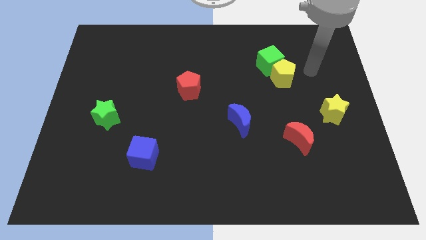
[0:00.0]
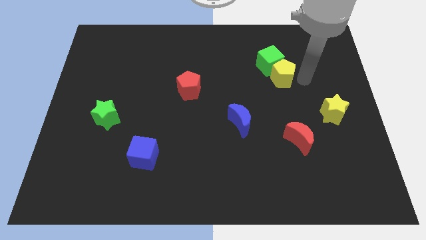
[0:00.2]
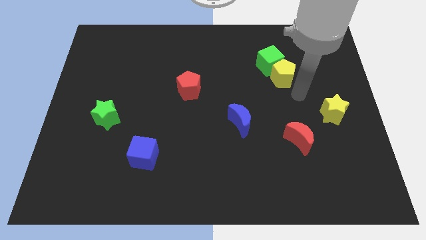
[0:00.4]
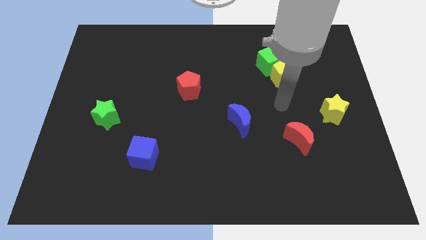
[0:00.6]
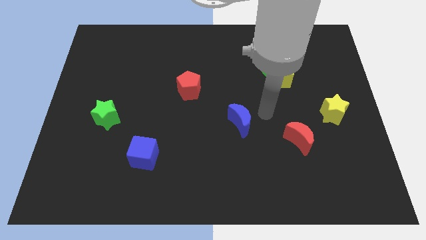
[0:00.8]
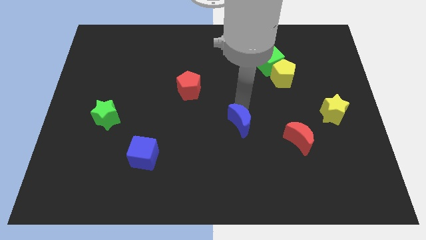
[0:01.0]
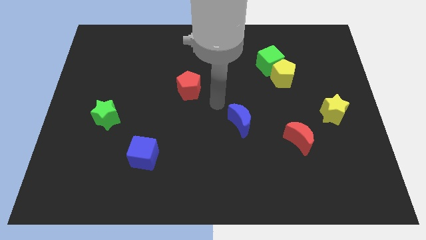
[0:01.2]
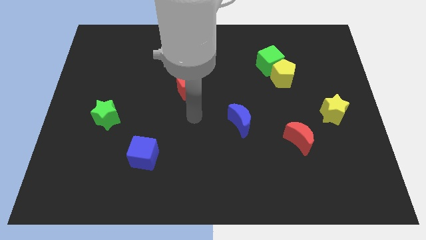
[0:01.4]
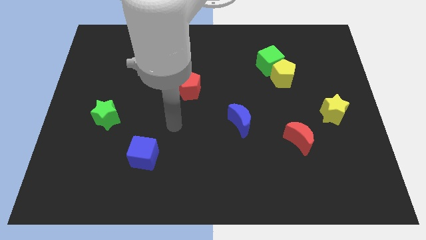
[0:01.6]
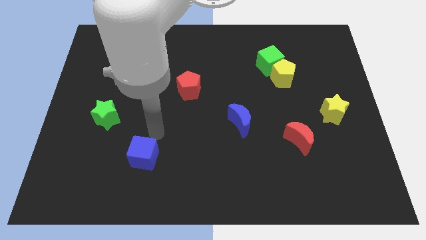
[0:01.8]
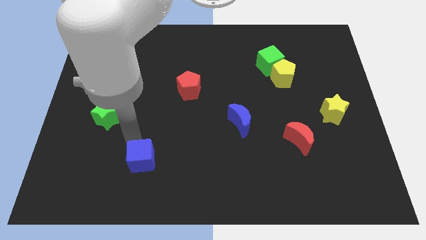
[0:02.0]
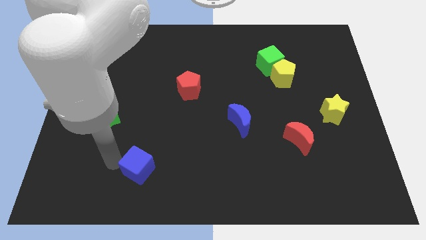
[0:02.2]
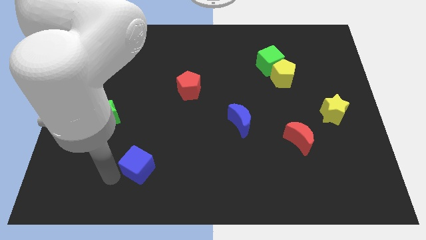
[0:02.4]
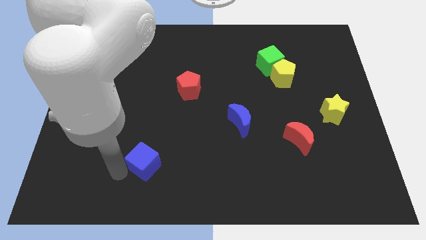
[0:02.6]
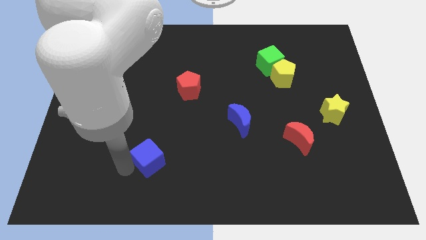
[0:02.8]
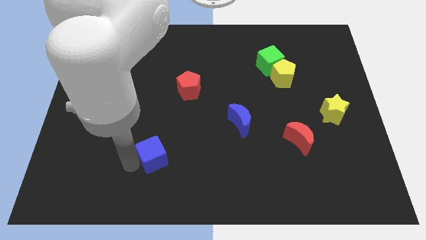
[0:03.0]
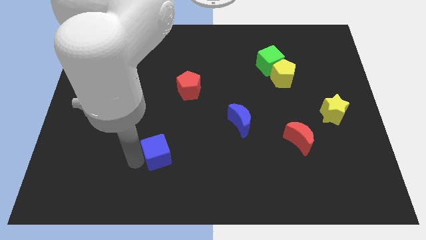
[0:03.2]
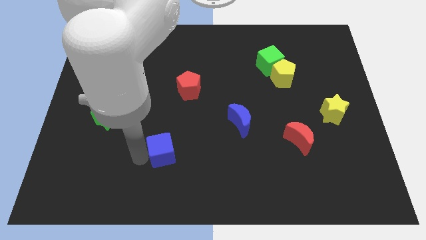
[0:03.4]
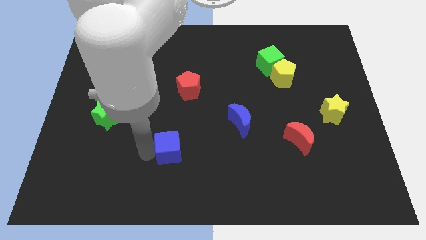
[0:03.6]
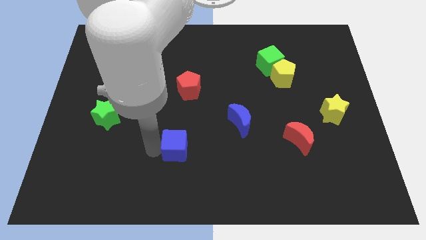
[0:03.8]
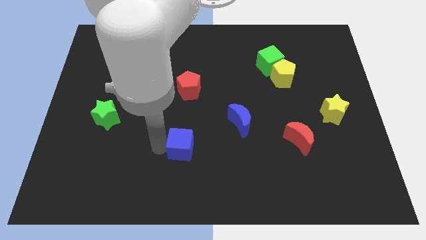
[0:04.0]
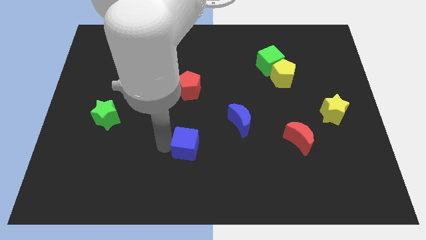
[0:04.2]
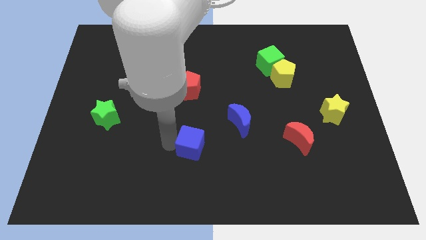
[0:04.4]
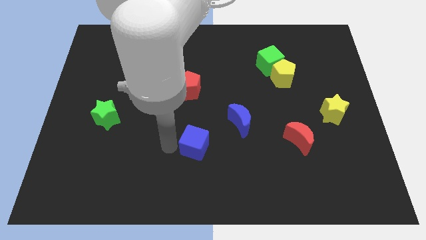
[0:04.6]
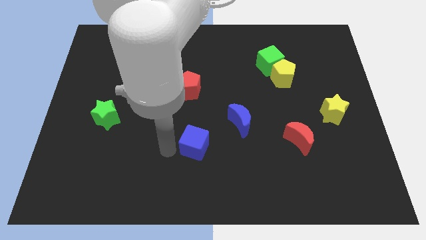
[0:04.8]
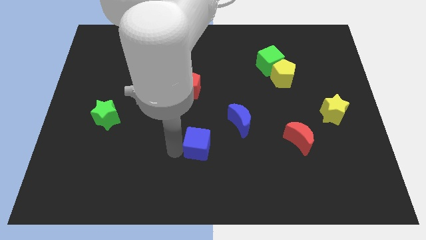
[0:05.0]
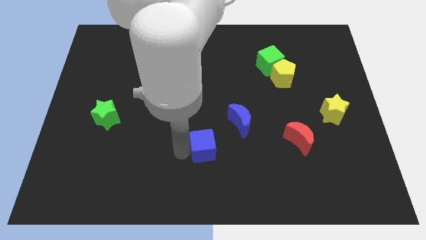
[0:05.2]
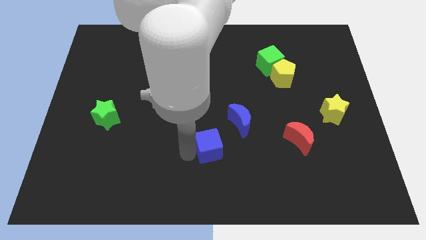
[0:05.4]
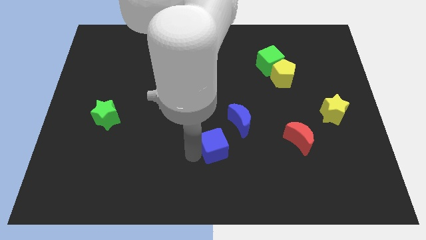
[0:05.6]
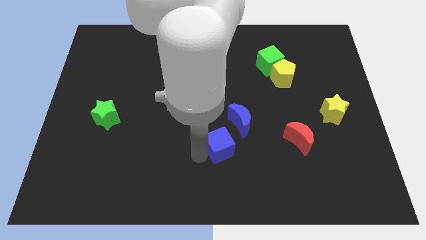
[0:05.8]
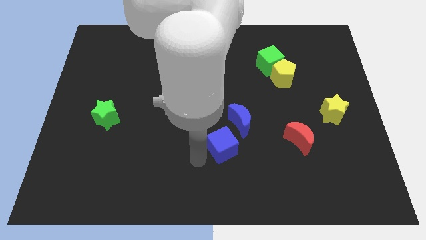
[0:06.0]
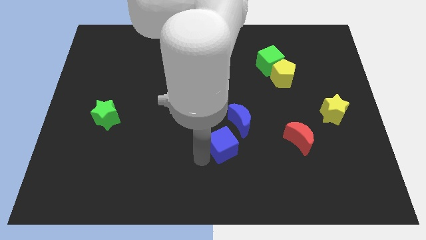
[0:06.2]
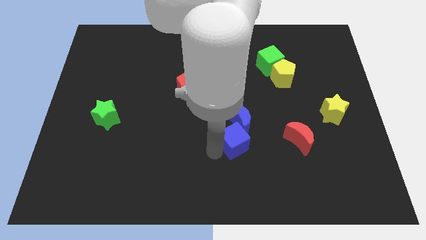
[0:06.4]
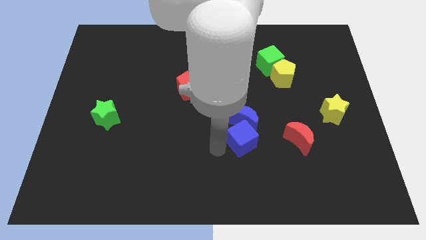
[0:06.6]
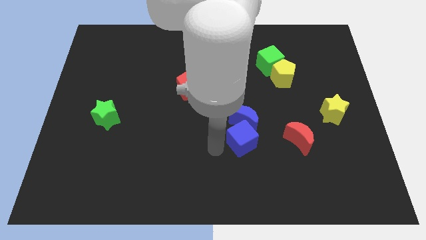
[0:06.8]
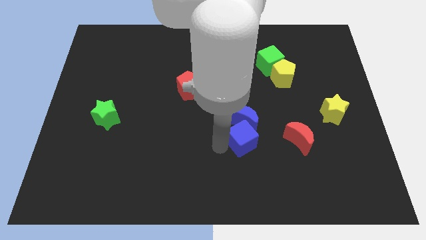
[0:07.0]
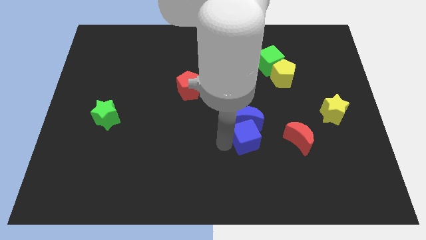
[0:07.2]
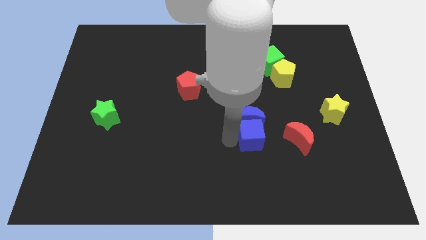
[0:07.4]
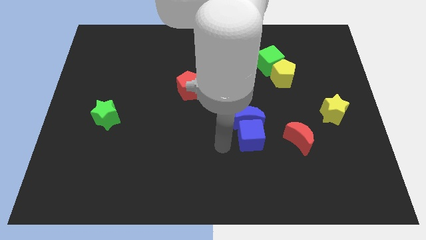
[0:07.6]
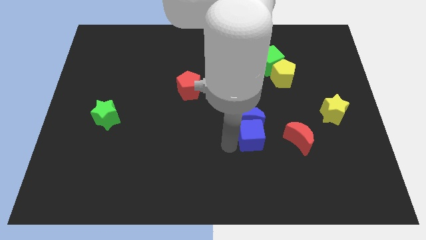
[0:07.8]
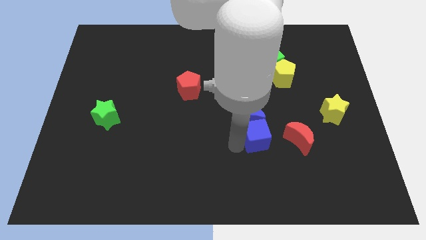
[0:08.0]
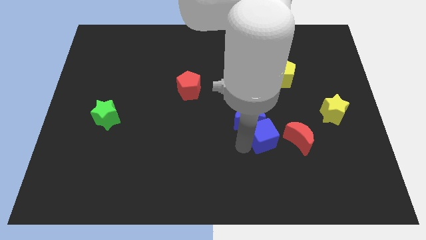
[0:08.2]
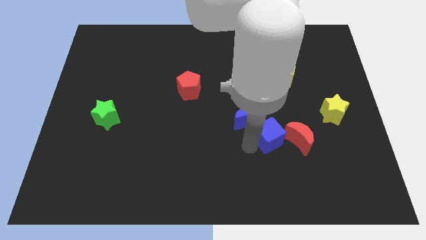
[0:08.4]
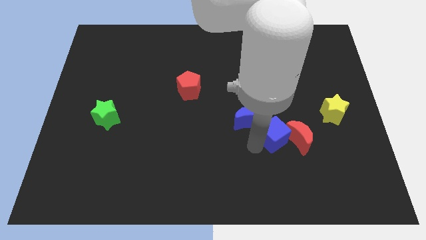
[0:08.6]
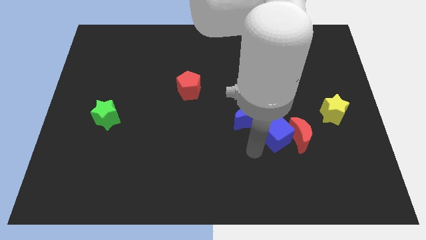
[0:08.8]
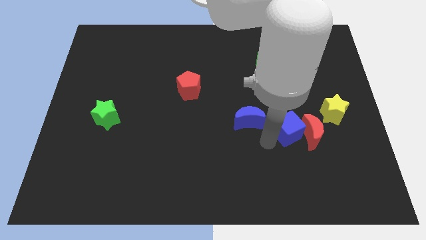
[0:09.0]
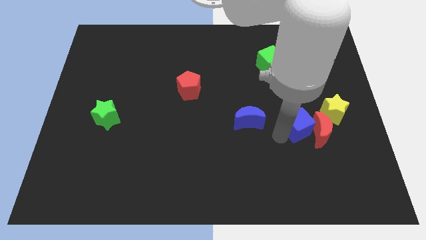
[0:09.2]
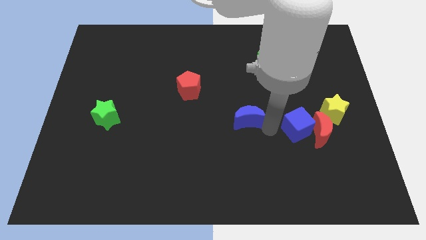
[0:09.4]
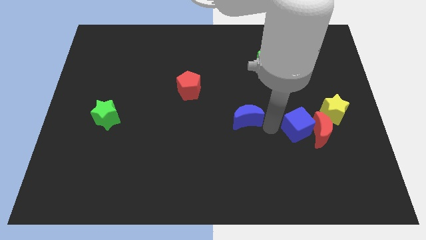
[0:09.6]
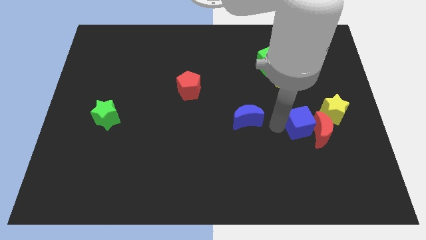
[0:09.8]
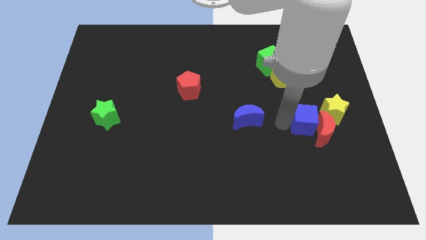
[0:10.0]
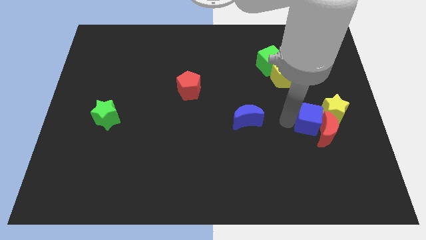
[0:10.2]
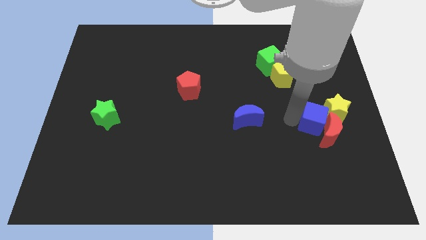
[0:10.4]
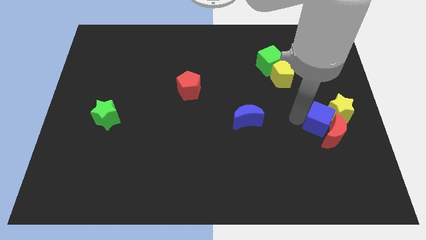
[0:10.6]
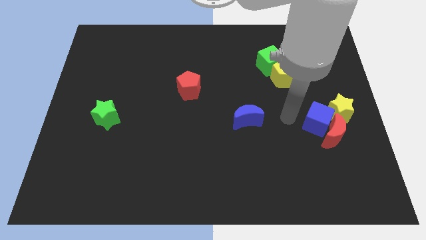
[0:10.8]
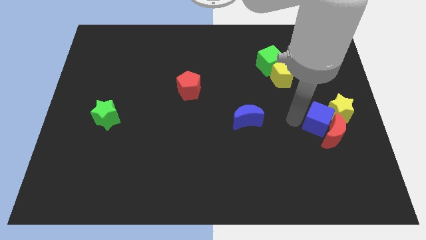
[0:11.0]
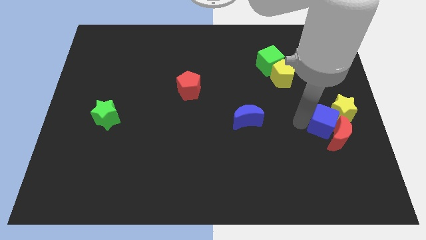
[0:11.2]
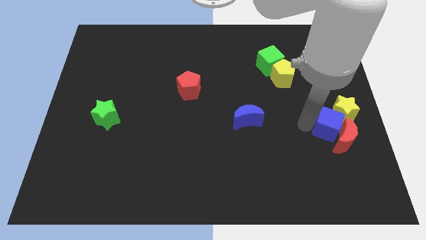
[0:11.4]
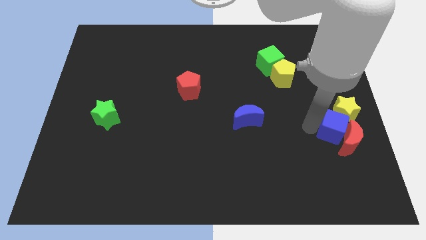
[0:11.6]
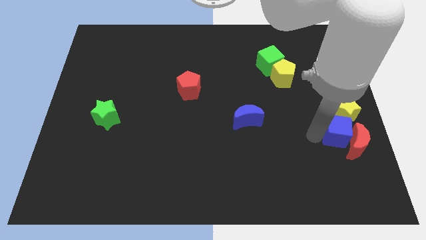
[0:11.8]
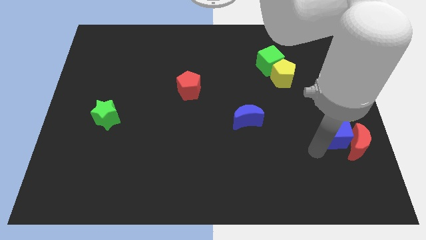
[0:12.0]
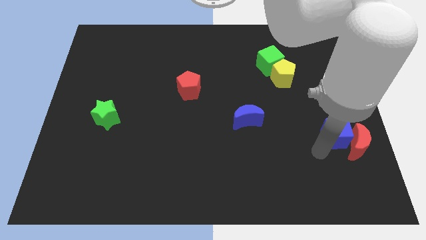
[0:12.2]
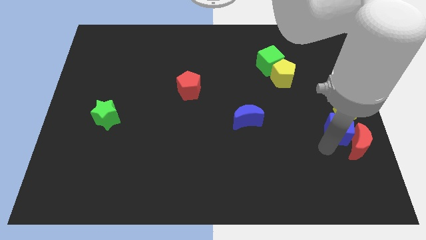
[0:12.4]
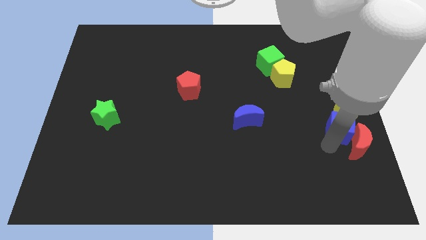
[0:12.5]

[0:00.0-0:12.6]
put the blue cube to the center right

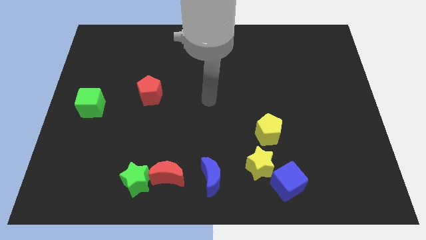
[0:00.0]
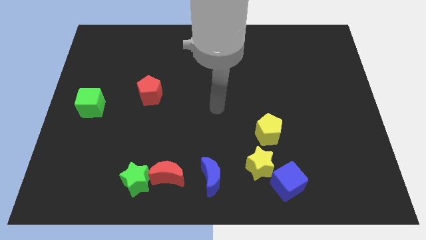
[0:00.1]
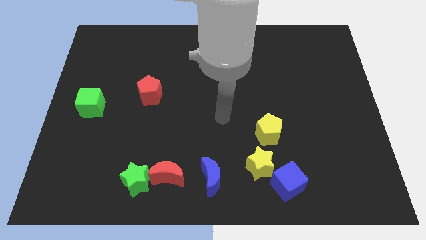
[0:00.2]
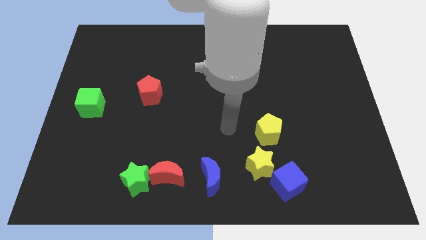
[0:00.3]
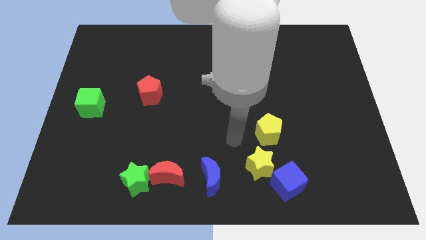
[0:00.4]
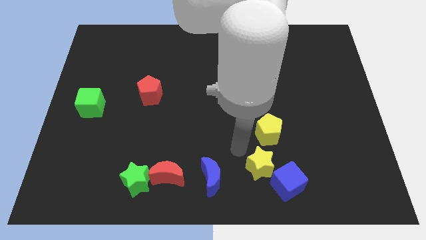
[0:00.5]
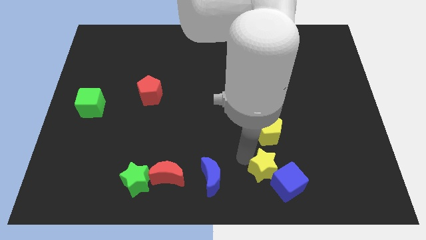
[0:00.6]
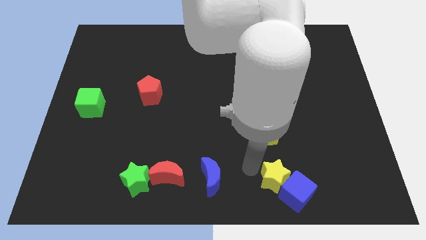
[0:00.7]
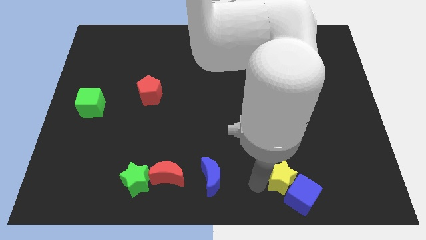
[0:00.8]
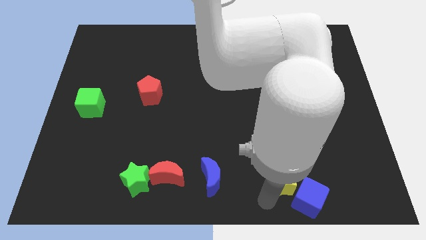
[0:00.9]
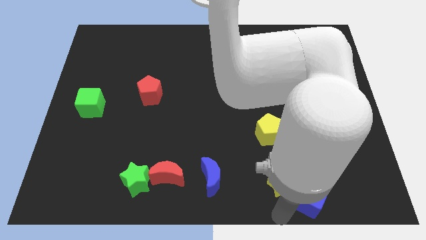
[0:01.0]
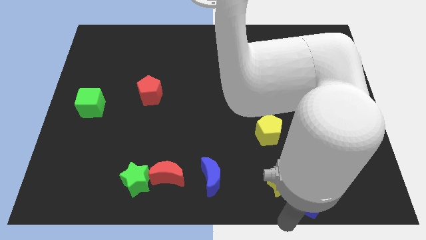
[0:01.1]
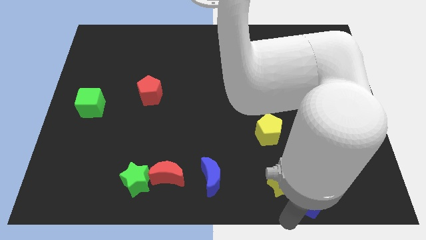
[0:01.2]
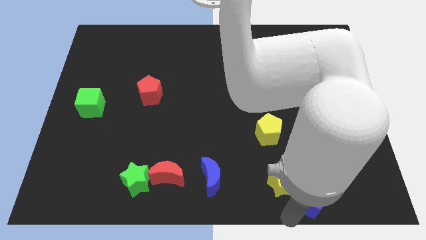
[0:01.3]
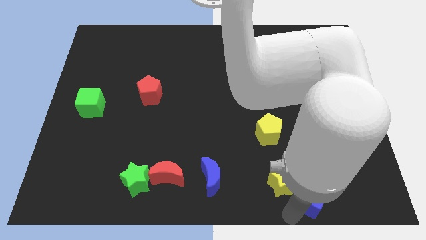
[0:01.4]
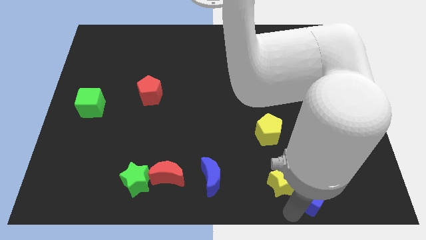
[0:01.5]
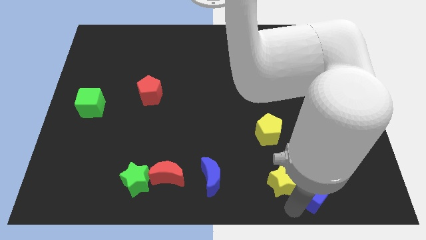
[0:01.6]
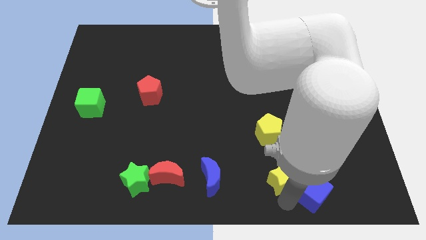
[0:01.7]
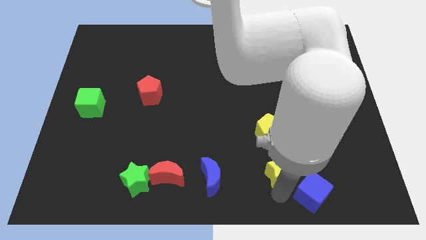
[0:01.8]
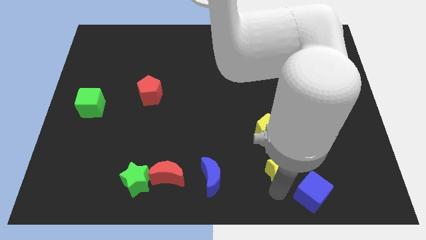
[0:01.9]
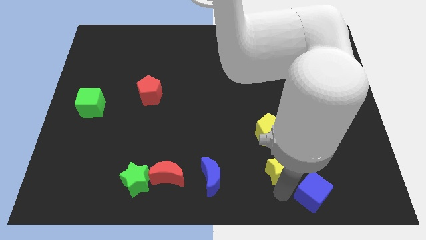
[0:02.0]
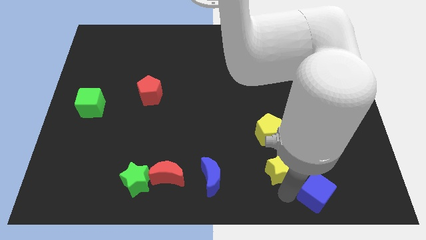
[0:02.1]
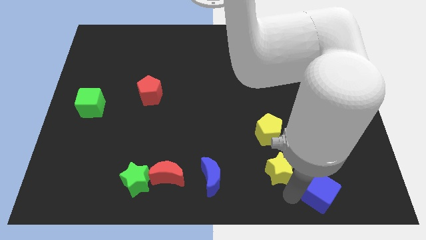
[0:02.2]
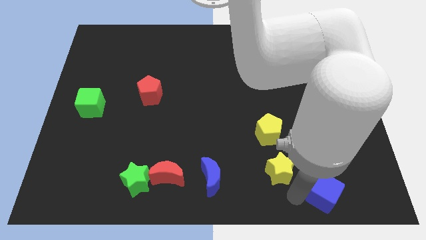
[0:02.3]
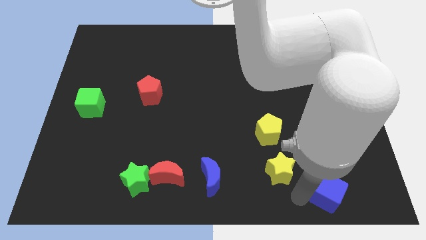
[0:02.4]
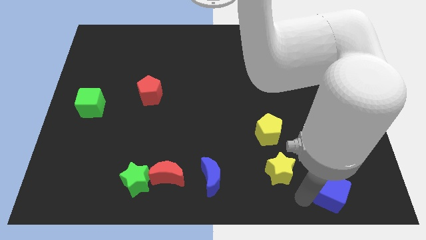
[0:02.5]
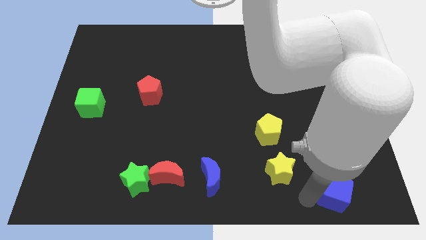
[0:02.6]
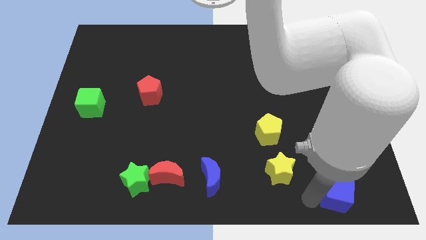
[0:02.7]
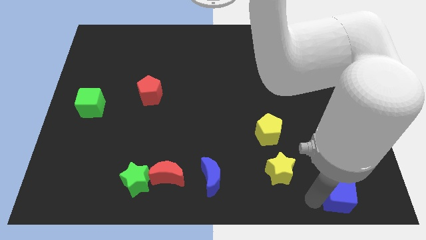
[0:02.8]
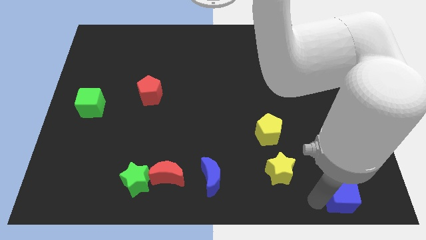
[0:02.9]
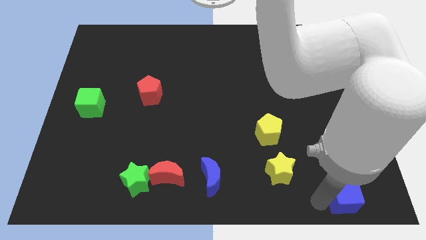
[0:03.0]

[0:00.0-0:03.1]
slide the blue cube to the lower right corner
